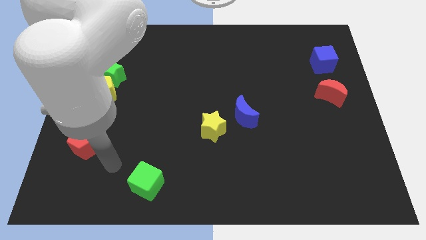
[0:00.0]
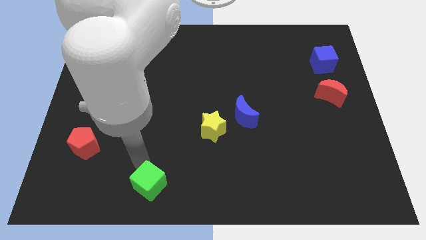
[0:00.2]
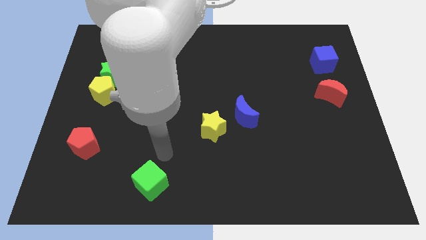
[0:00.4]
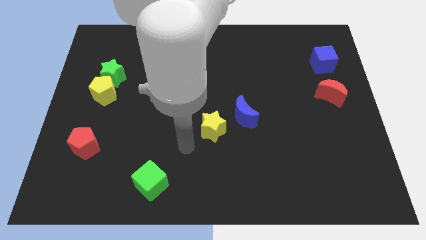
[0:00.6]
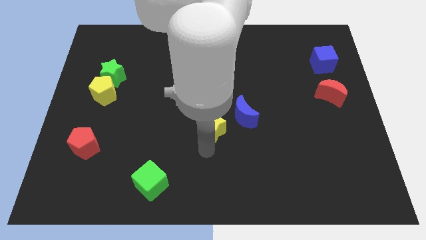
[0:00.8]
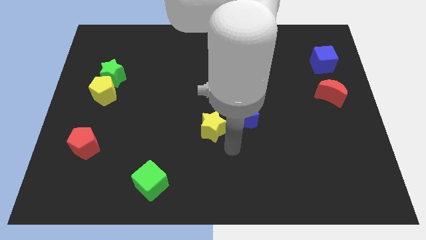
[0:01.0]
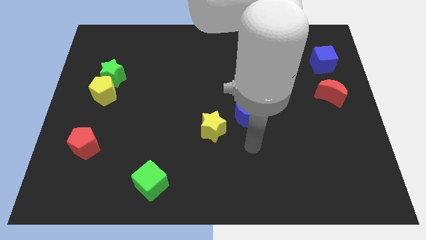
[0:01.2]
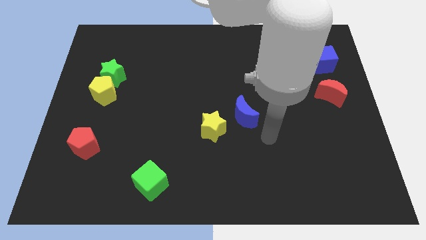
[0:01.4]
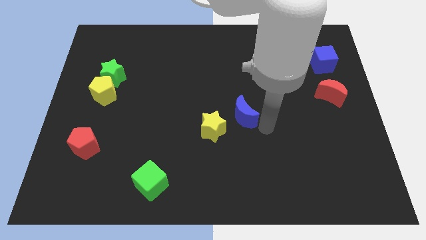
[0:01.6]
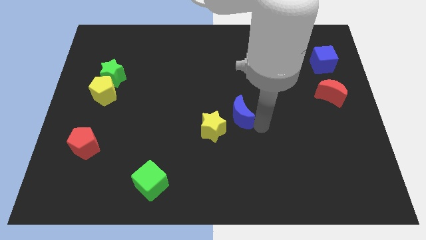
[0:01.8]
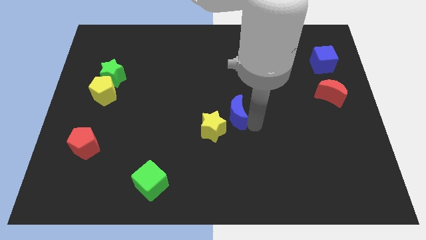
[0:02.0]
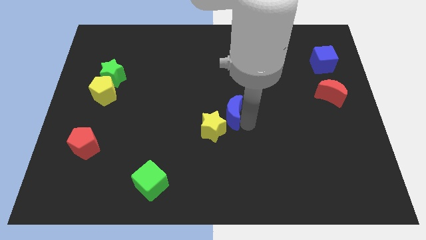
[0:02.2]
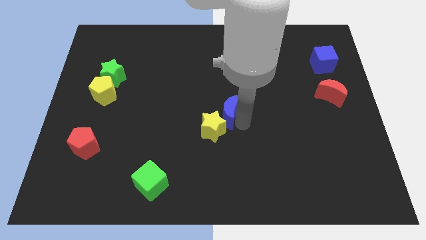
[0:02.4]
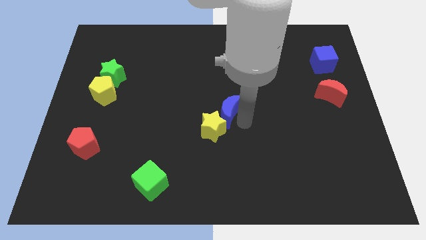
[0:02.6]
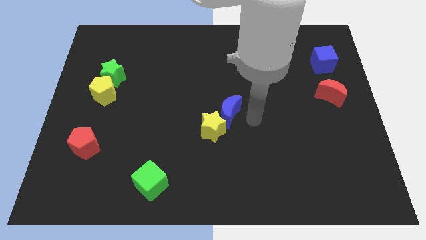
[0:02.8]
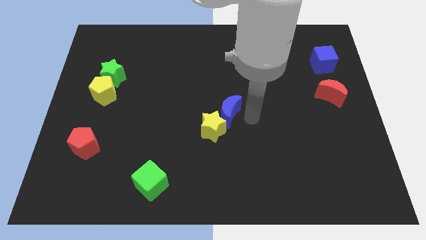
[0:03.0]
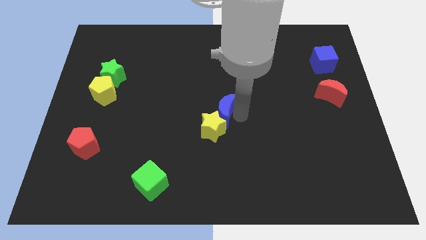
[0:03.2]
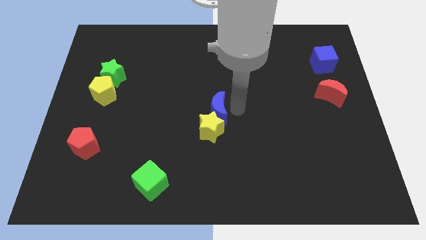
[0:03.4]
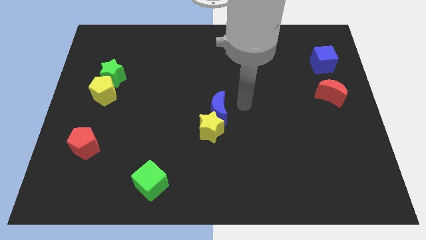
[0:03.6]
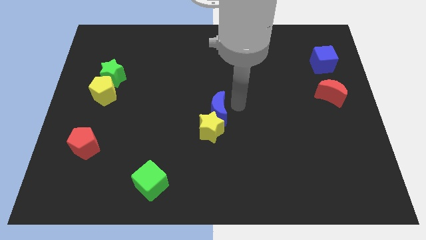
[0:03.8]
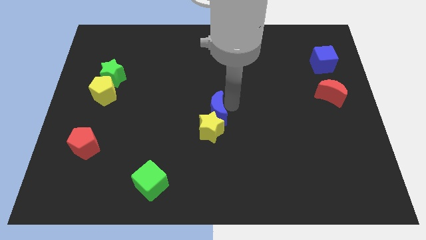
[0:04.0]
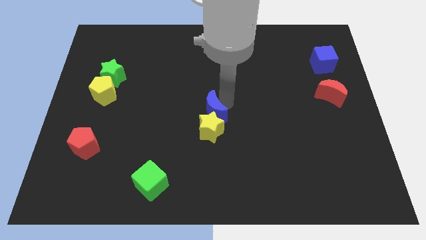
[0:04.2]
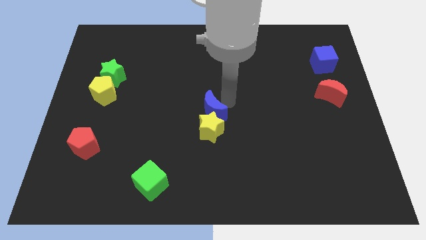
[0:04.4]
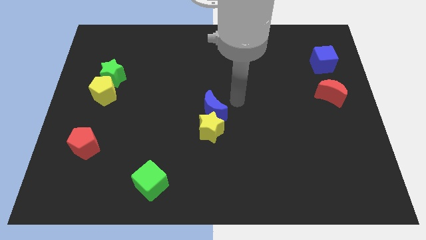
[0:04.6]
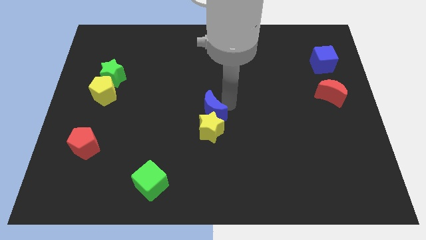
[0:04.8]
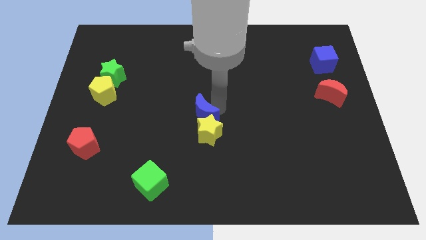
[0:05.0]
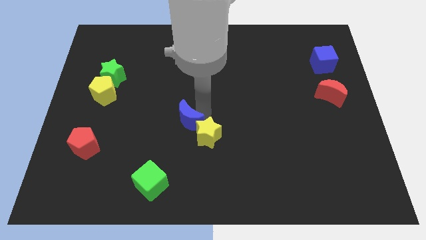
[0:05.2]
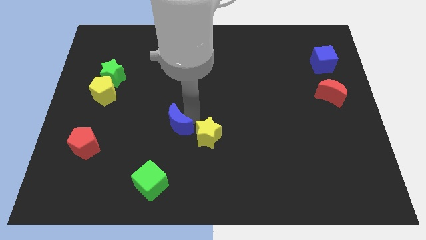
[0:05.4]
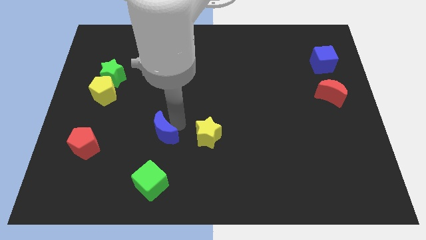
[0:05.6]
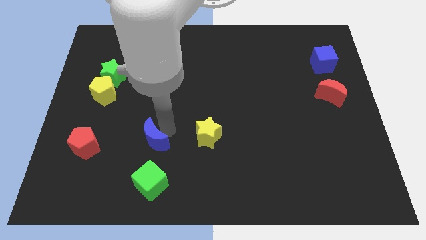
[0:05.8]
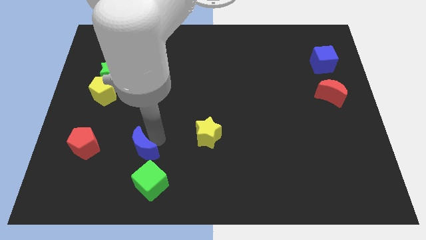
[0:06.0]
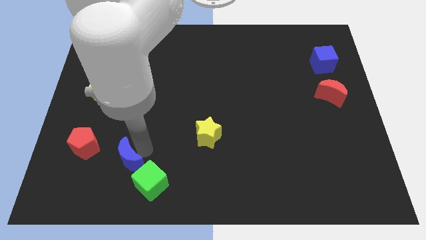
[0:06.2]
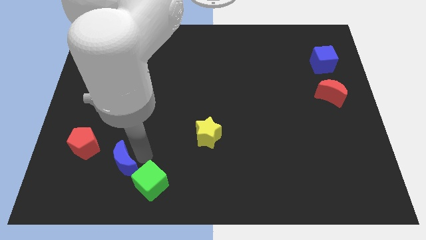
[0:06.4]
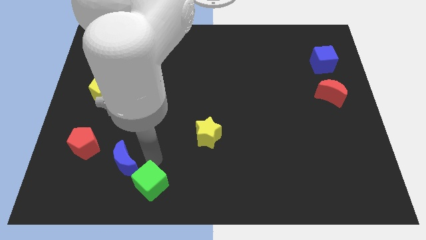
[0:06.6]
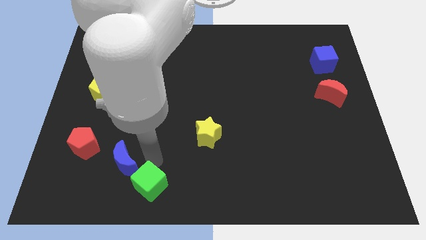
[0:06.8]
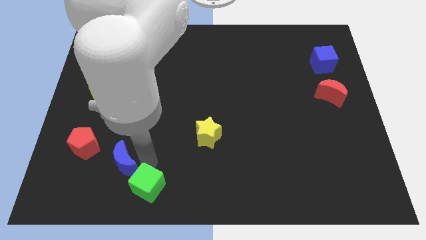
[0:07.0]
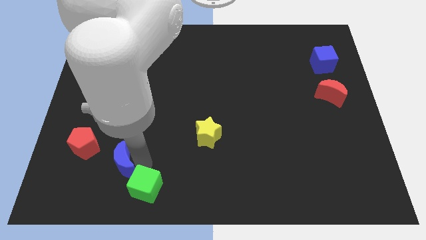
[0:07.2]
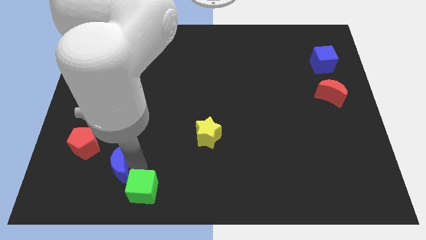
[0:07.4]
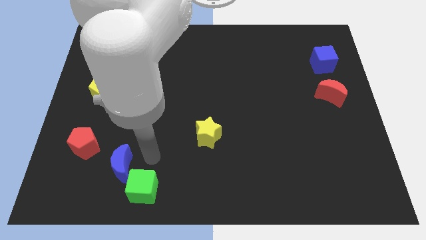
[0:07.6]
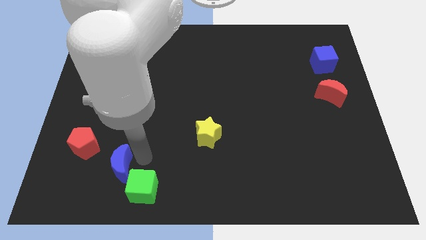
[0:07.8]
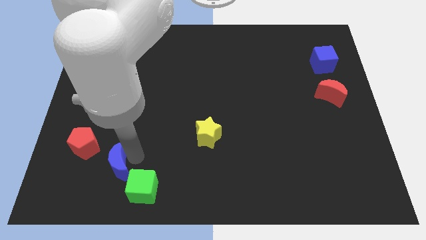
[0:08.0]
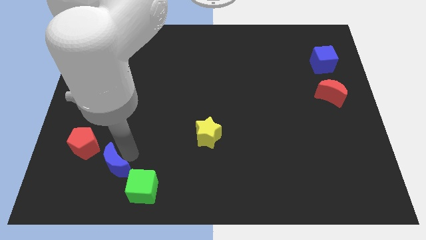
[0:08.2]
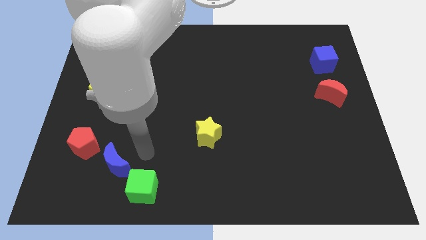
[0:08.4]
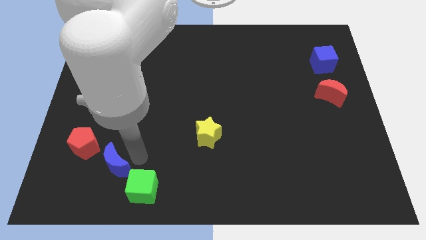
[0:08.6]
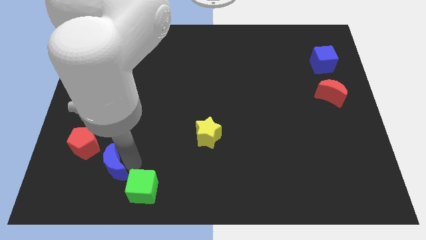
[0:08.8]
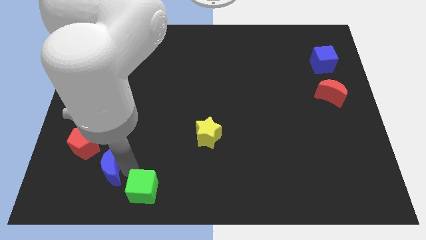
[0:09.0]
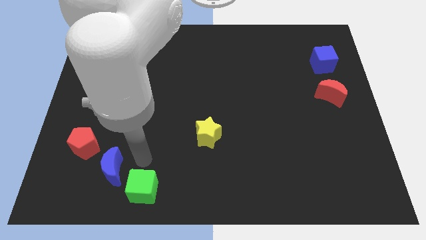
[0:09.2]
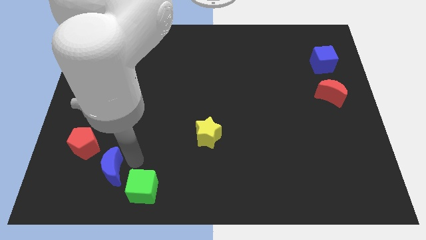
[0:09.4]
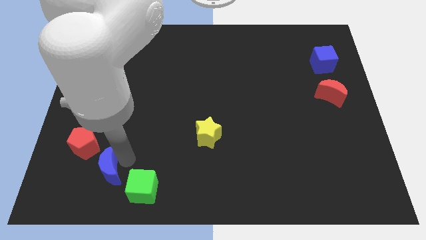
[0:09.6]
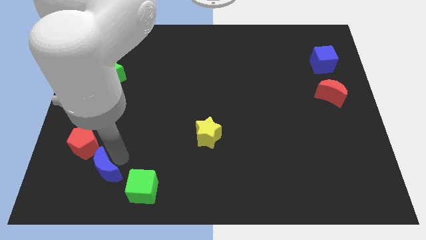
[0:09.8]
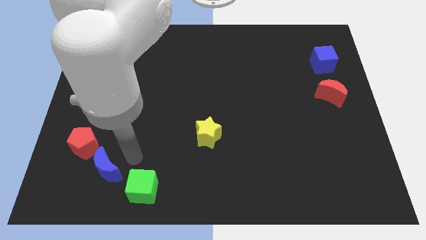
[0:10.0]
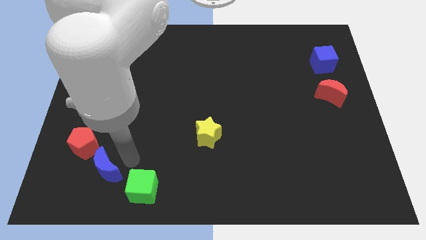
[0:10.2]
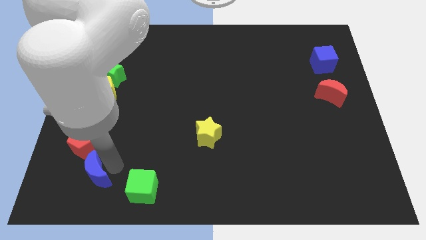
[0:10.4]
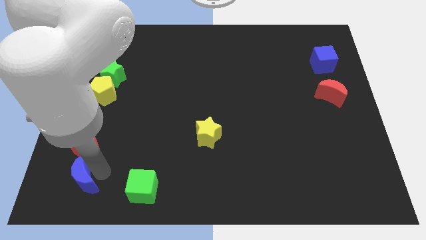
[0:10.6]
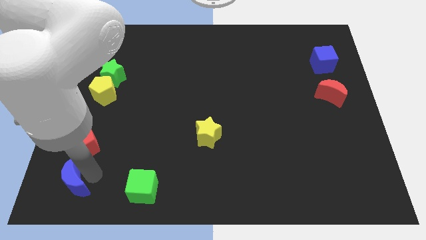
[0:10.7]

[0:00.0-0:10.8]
move the blue moon to the bottom left
